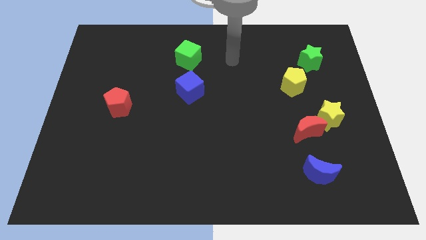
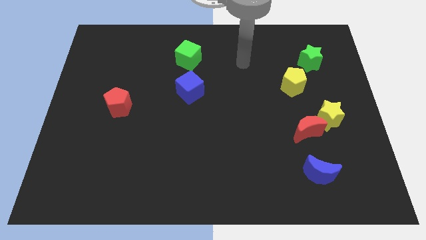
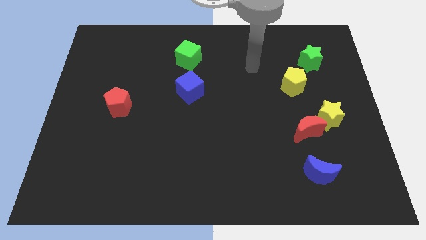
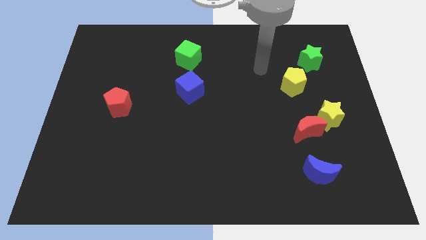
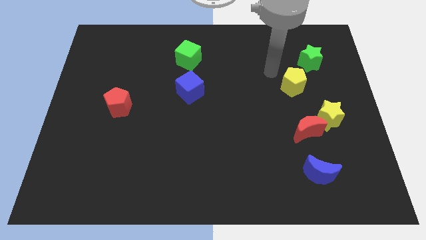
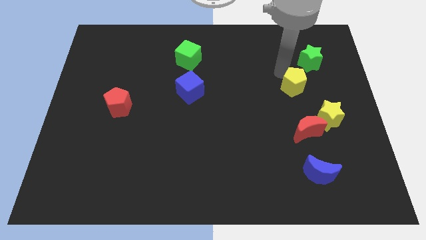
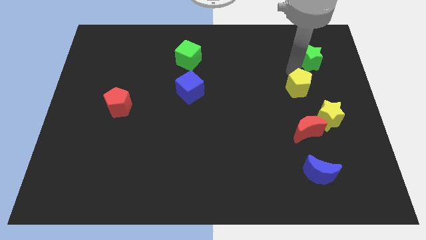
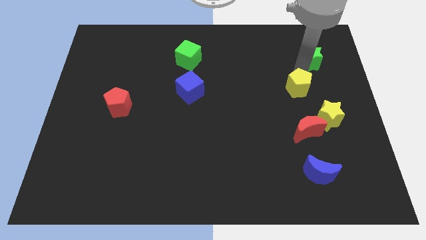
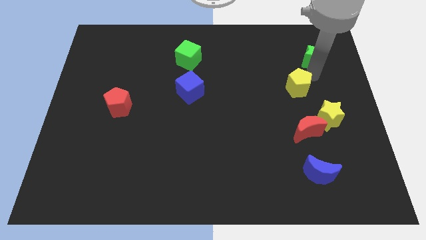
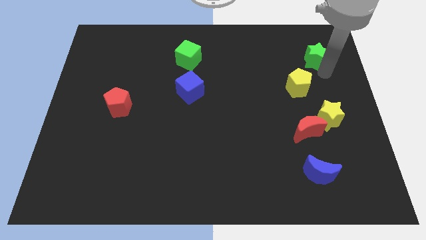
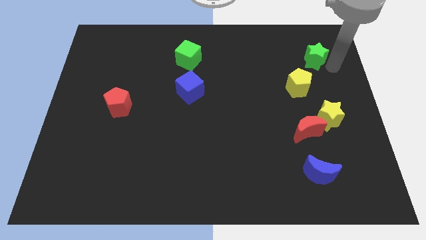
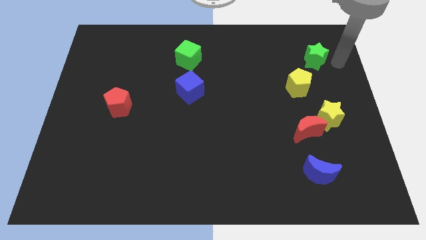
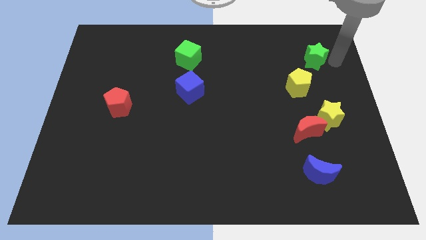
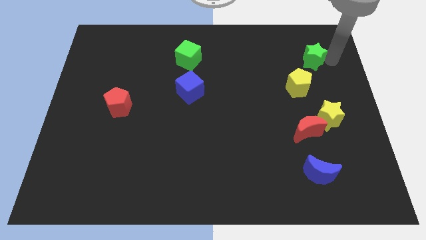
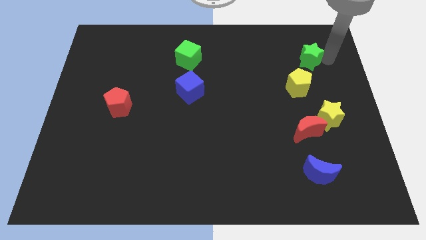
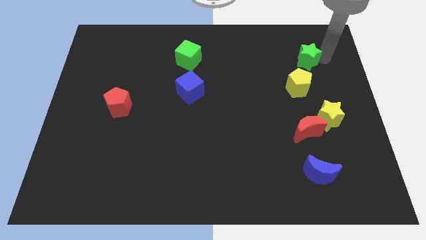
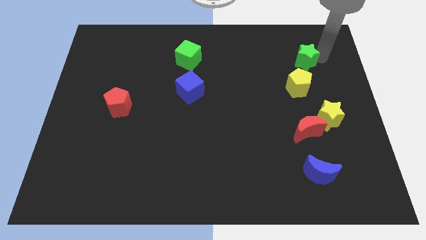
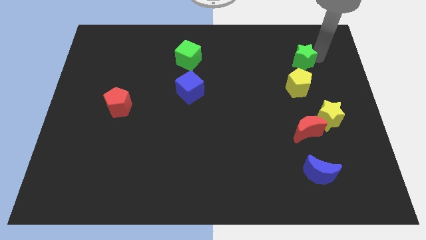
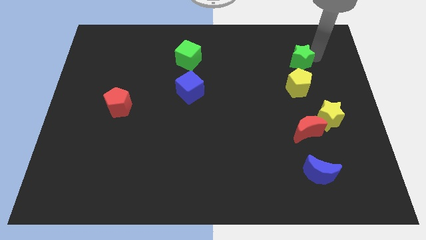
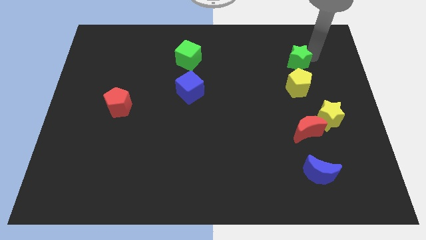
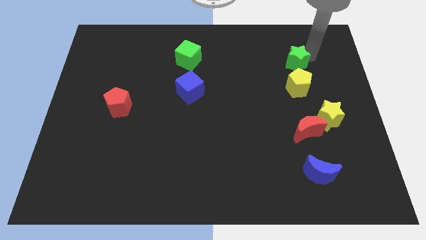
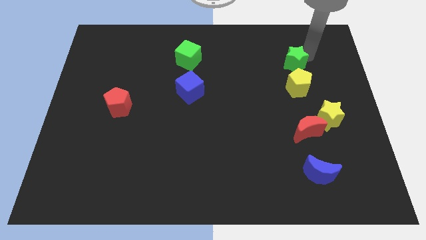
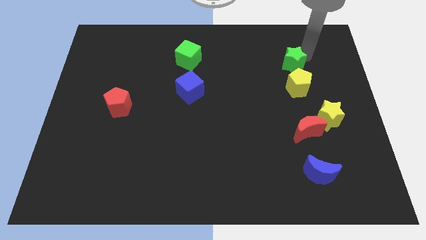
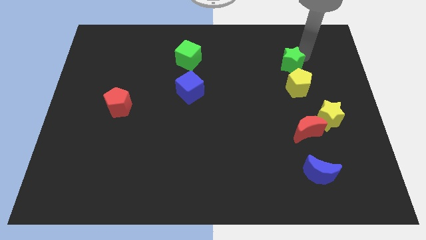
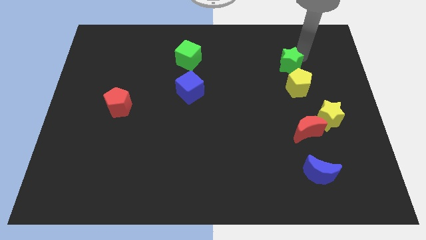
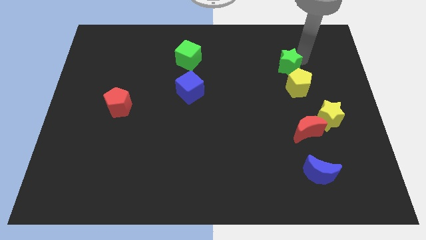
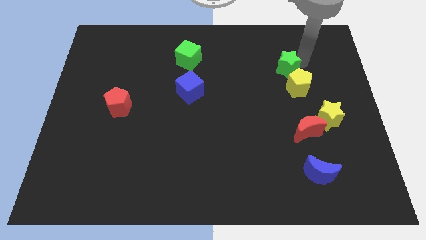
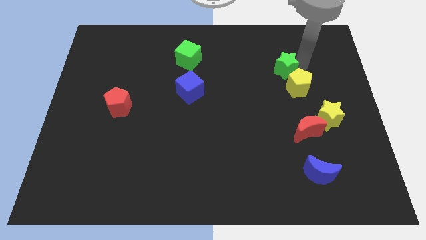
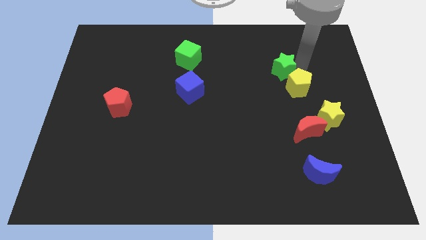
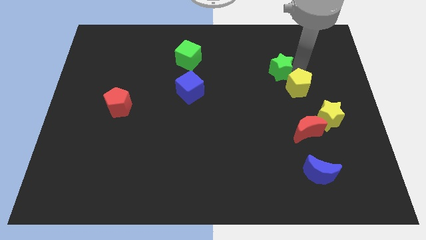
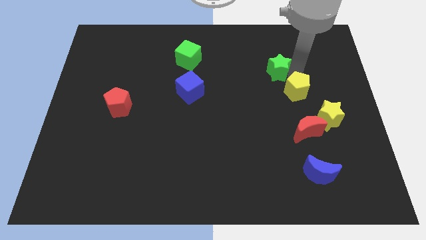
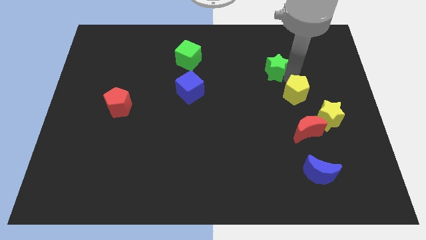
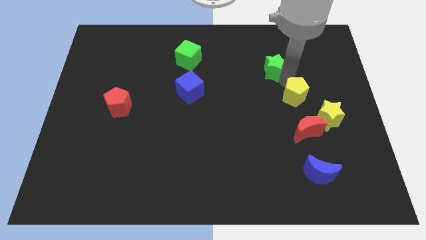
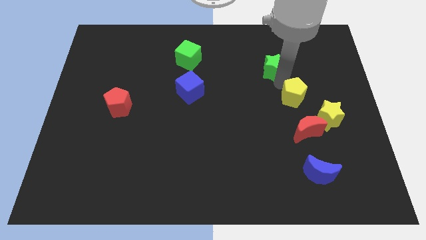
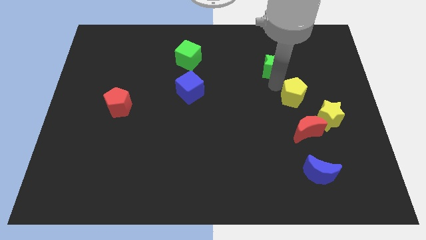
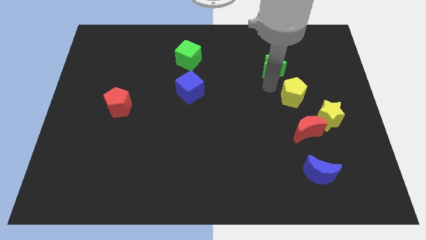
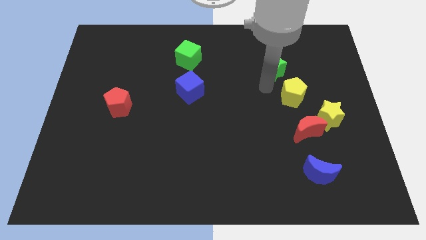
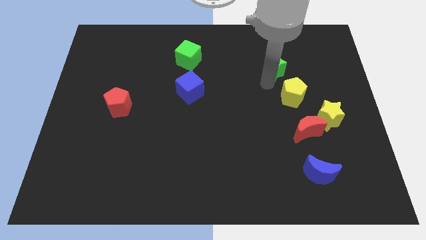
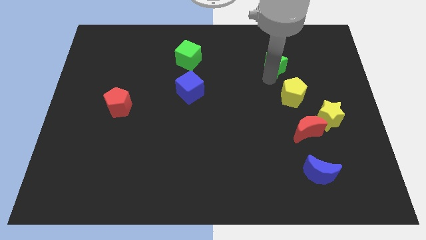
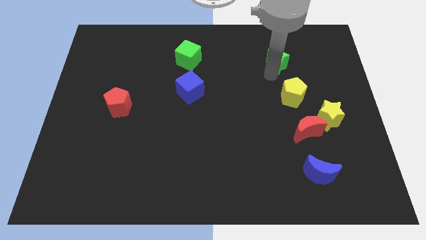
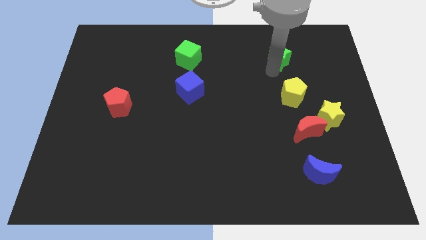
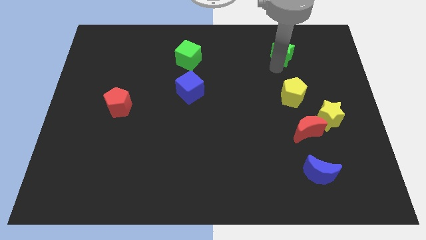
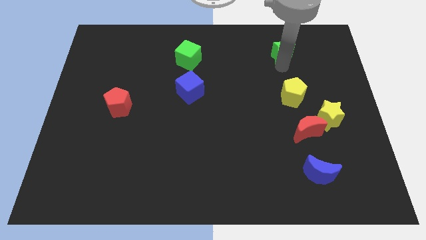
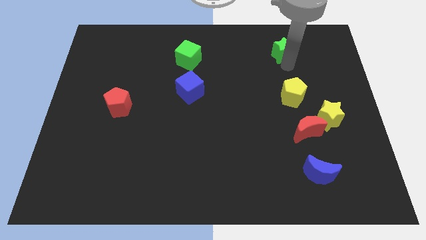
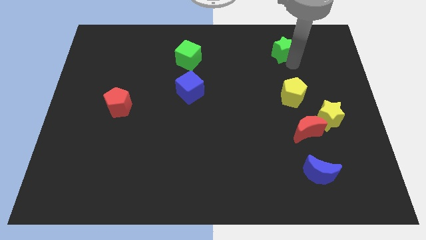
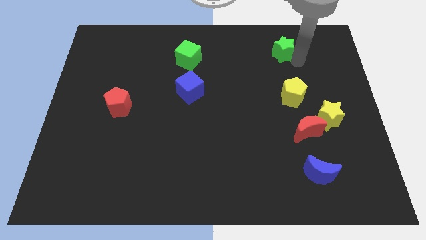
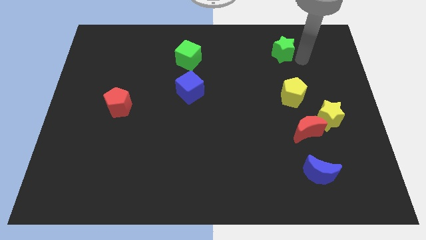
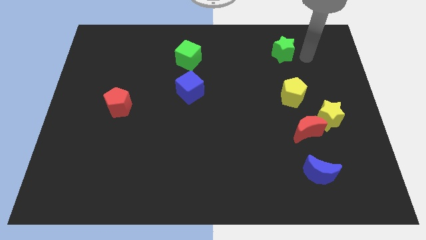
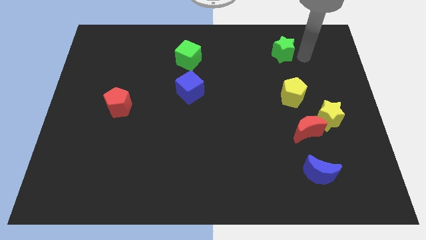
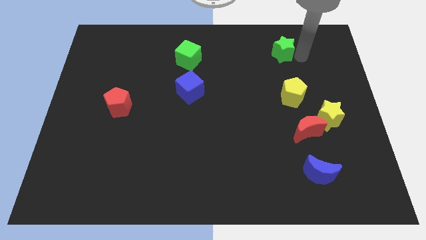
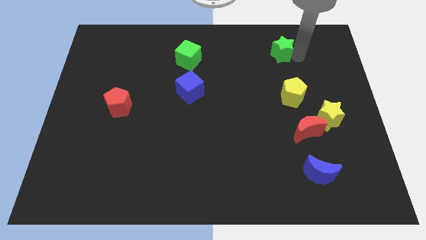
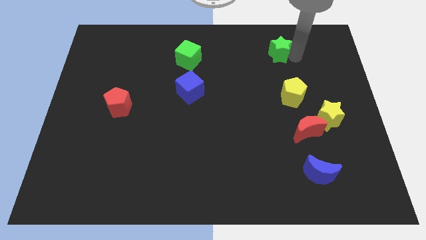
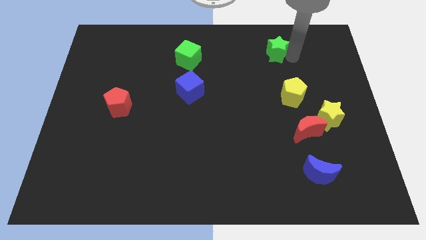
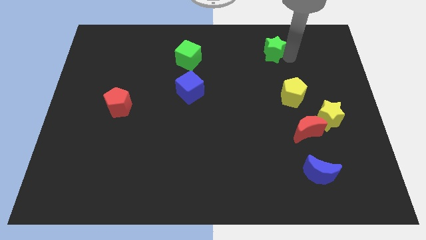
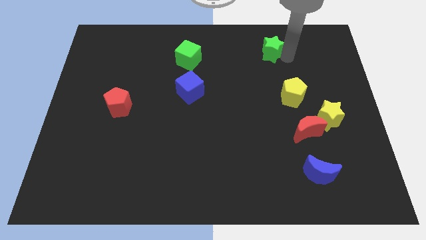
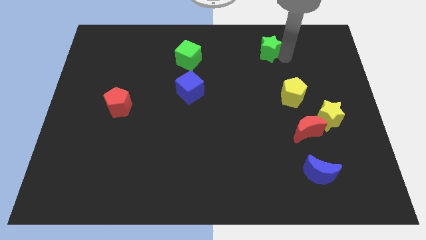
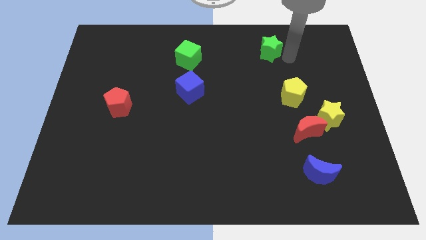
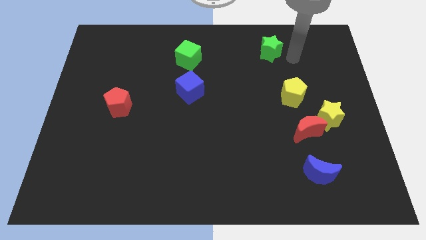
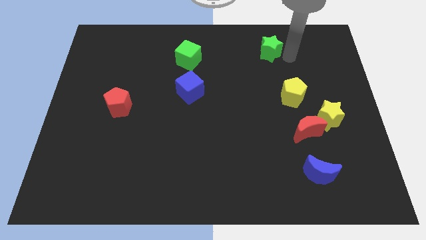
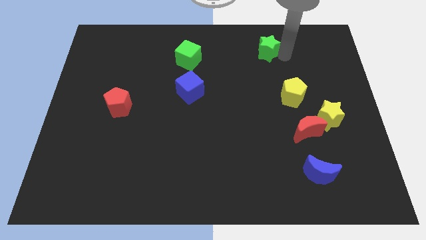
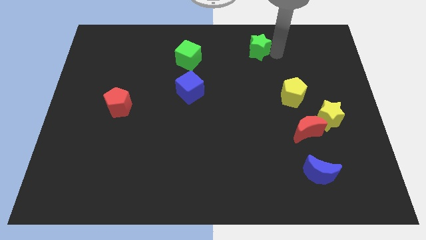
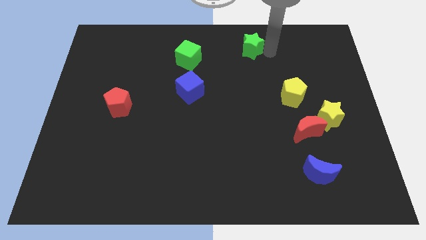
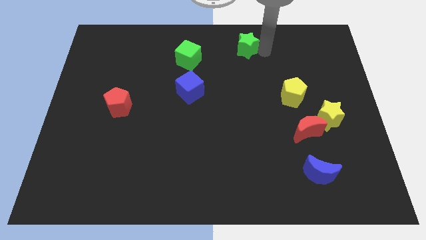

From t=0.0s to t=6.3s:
slide the green star to the top side
